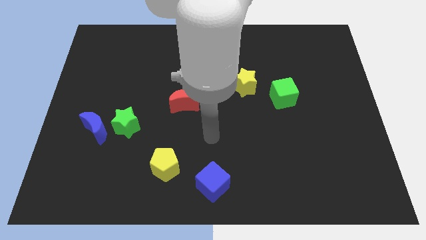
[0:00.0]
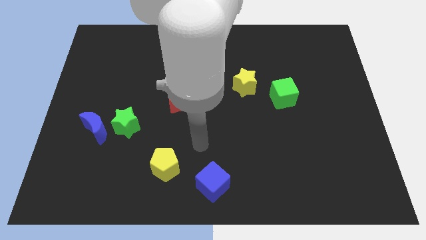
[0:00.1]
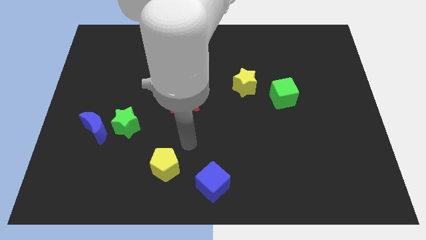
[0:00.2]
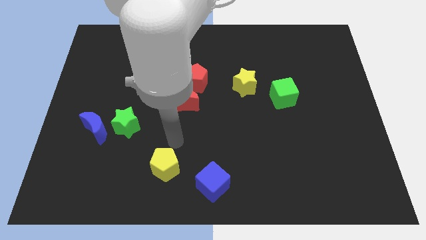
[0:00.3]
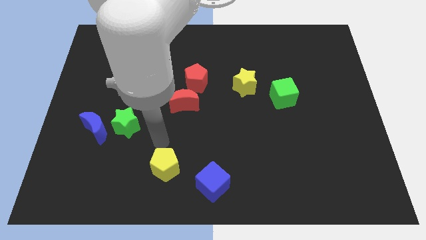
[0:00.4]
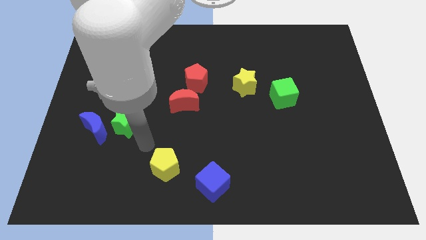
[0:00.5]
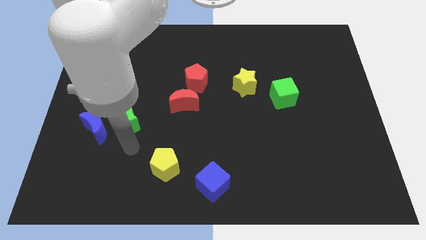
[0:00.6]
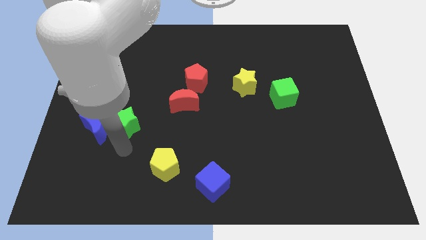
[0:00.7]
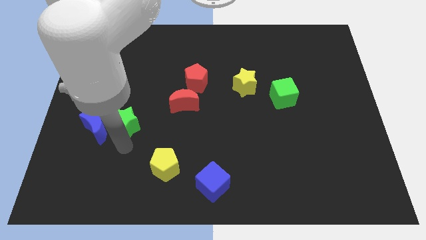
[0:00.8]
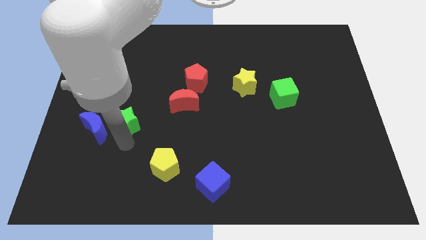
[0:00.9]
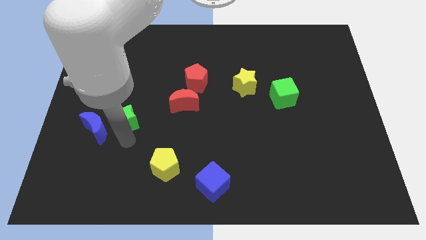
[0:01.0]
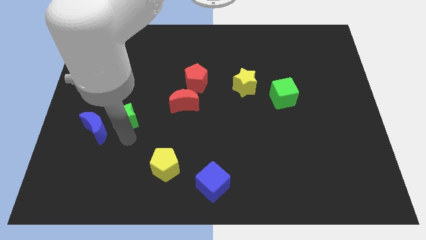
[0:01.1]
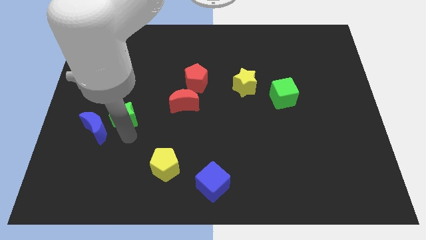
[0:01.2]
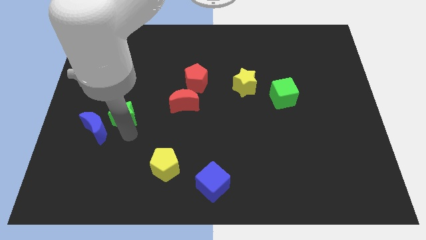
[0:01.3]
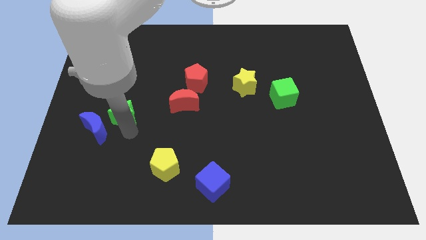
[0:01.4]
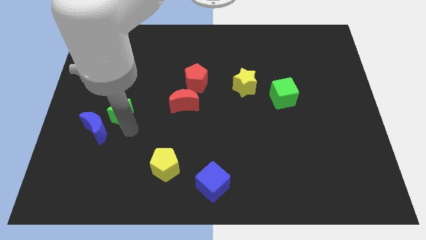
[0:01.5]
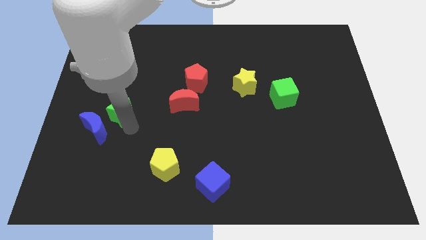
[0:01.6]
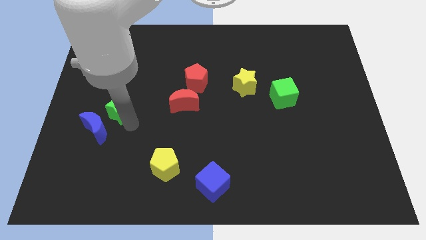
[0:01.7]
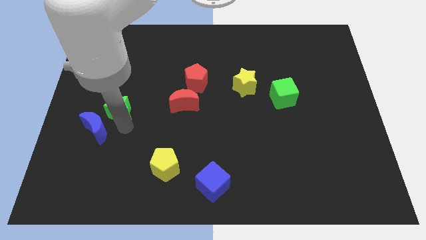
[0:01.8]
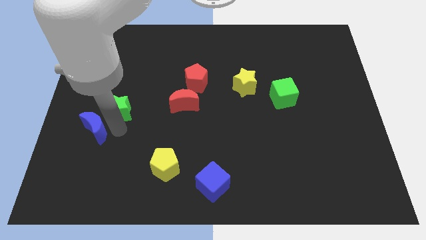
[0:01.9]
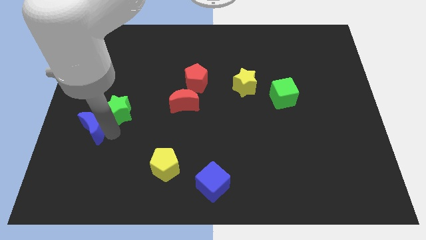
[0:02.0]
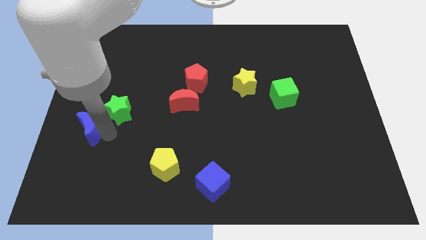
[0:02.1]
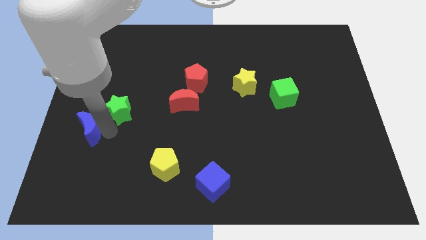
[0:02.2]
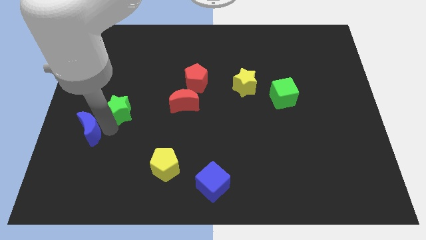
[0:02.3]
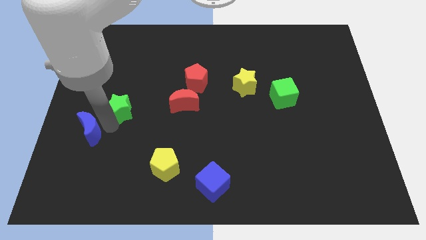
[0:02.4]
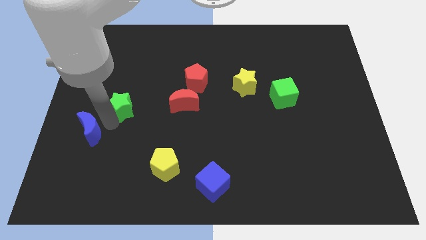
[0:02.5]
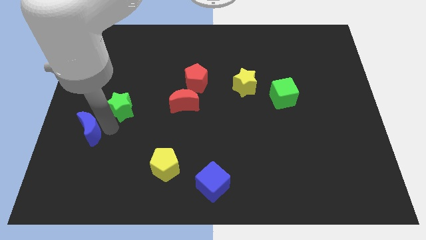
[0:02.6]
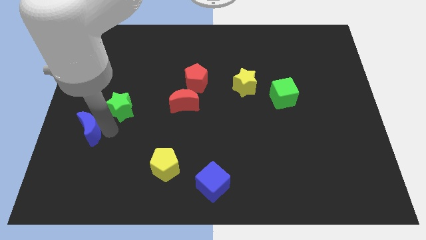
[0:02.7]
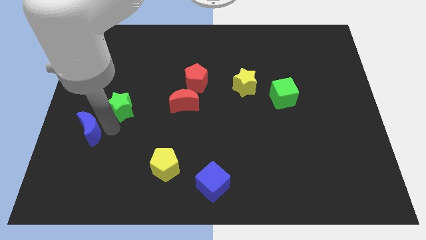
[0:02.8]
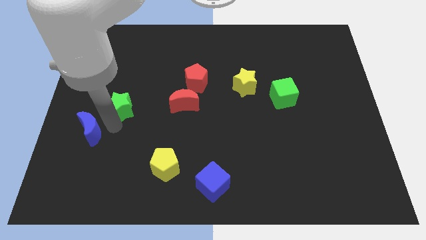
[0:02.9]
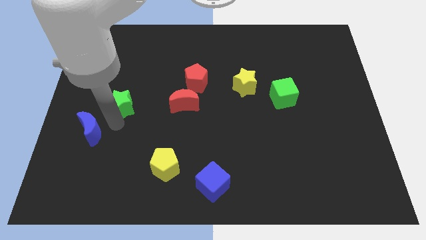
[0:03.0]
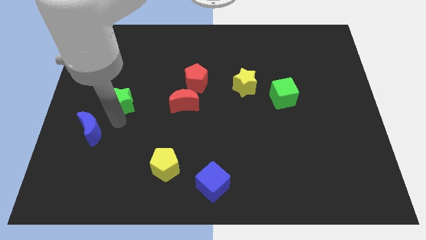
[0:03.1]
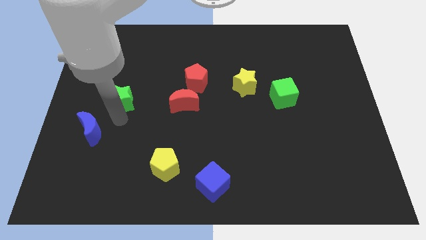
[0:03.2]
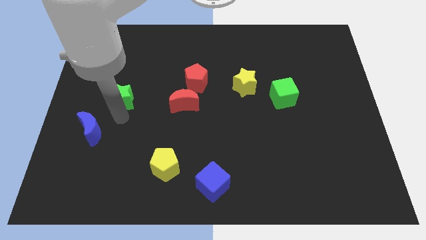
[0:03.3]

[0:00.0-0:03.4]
move the green star upwards a bit

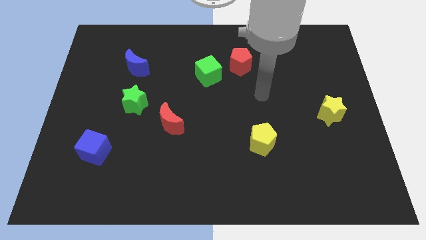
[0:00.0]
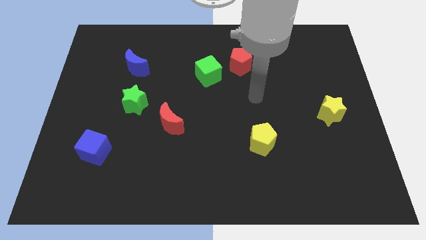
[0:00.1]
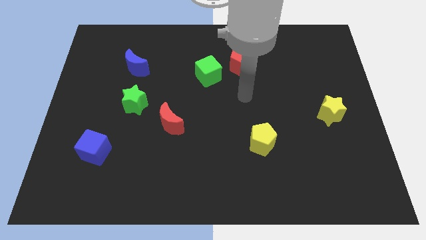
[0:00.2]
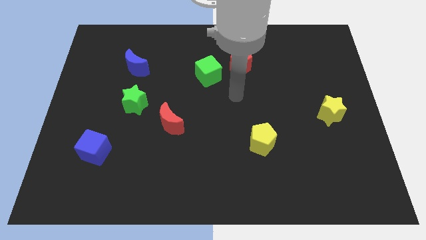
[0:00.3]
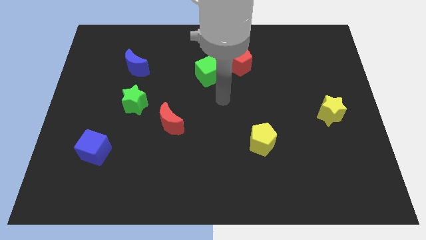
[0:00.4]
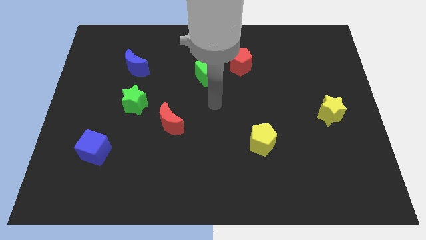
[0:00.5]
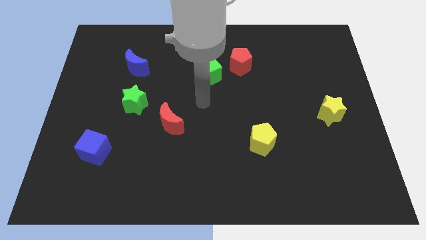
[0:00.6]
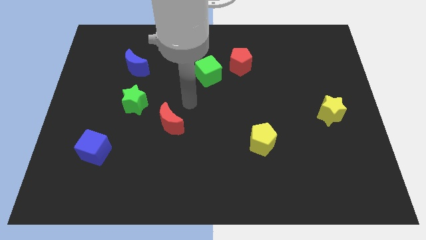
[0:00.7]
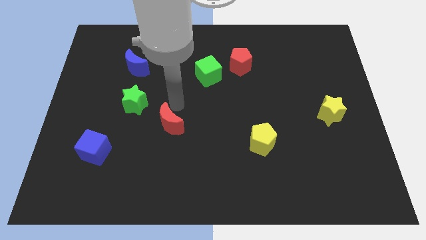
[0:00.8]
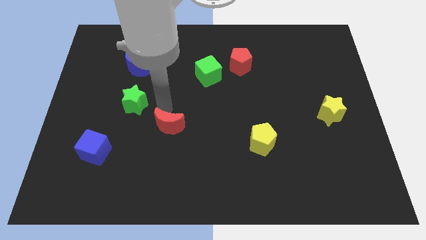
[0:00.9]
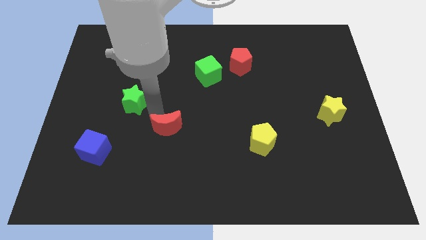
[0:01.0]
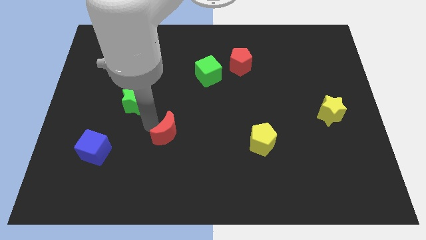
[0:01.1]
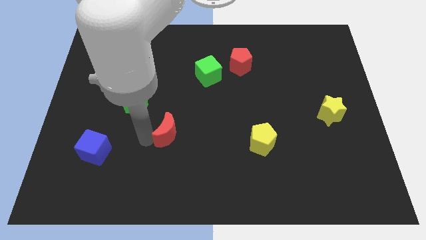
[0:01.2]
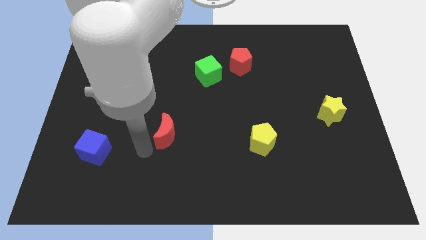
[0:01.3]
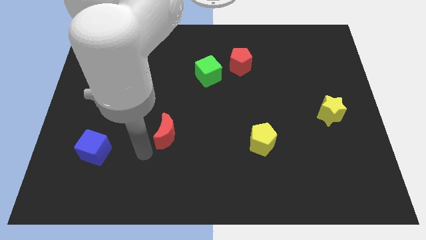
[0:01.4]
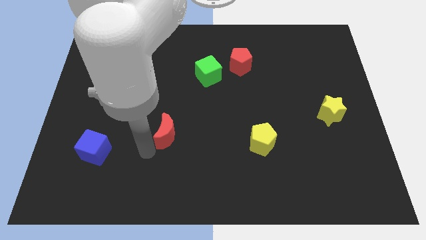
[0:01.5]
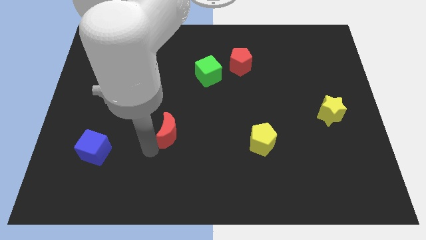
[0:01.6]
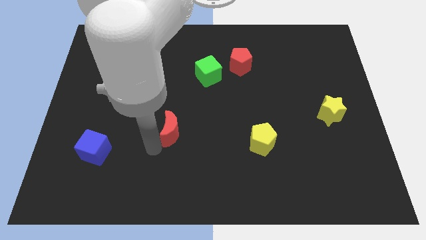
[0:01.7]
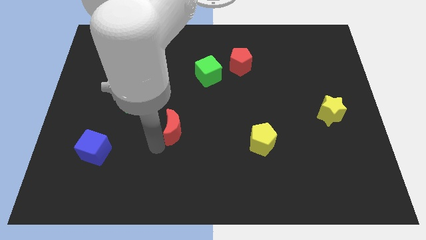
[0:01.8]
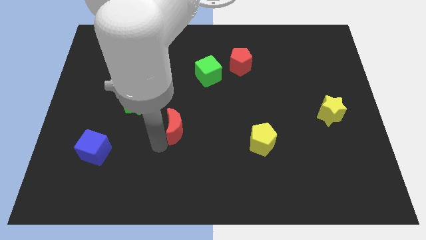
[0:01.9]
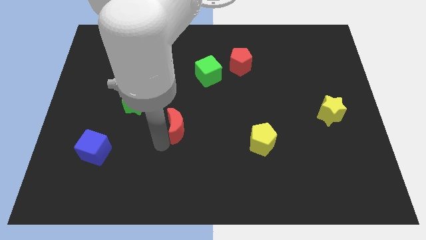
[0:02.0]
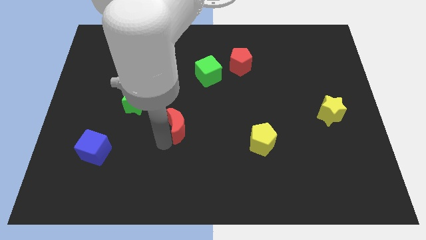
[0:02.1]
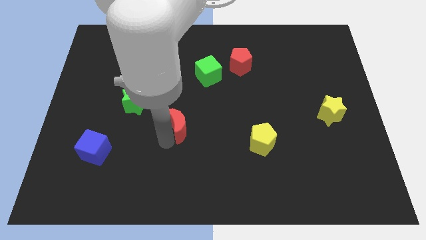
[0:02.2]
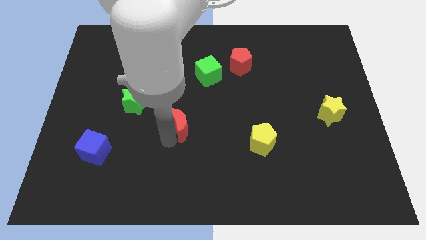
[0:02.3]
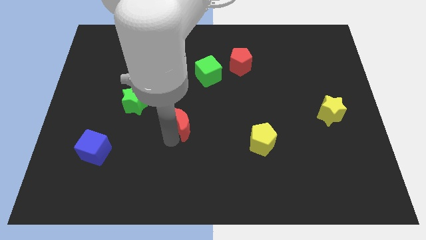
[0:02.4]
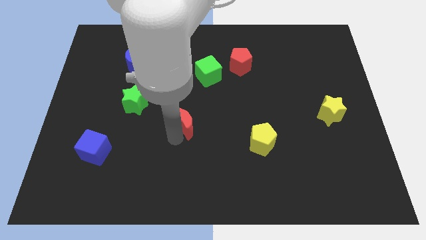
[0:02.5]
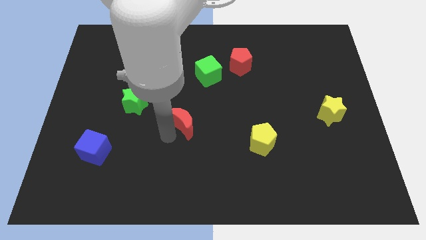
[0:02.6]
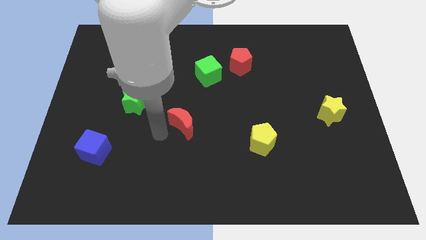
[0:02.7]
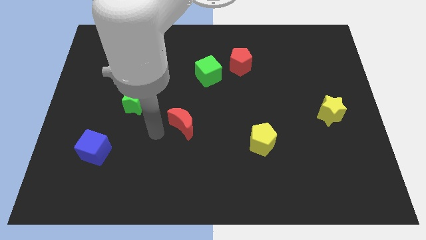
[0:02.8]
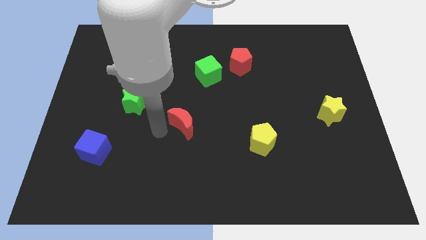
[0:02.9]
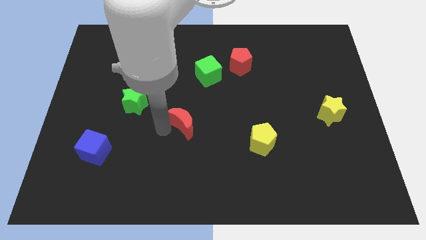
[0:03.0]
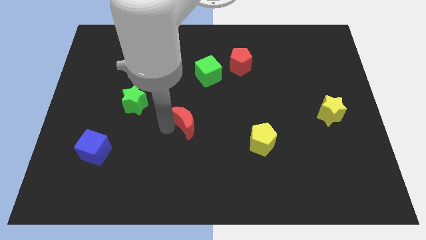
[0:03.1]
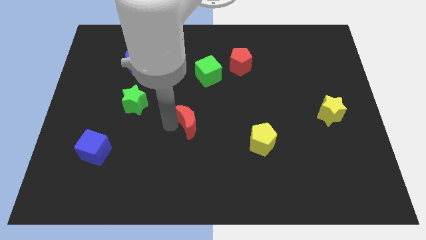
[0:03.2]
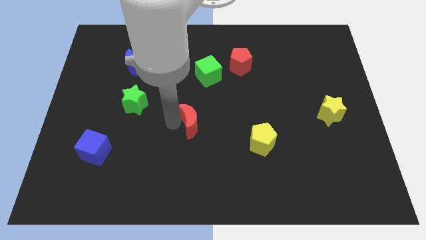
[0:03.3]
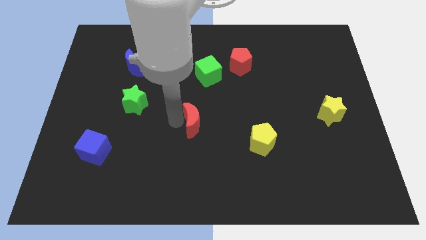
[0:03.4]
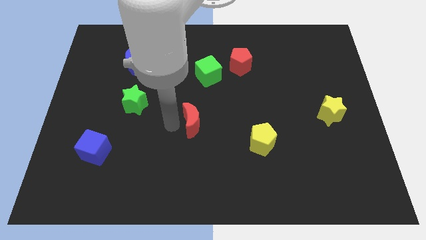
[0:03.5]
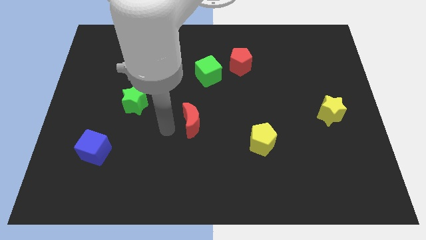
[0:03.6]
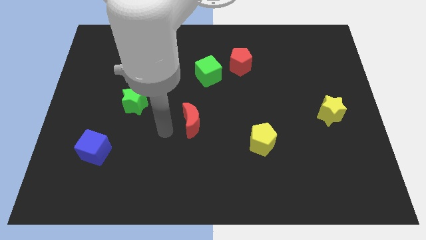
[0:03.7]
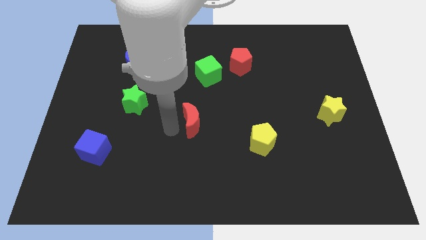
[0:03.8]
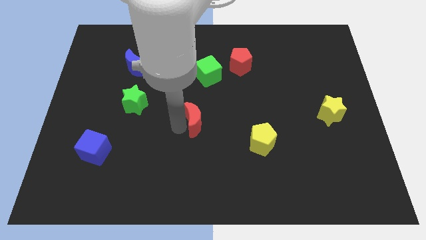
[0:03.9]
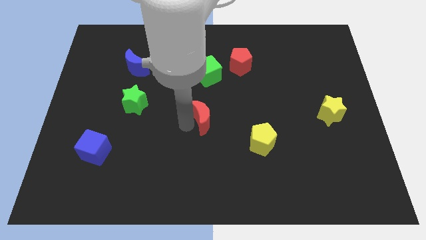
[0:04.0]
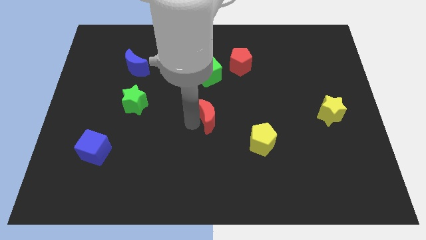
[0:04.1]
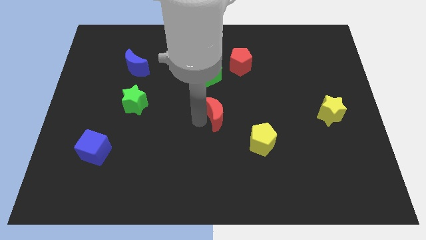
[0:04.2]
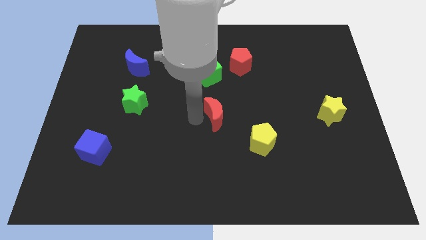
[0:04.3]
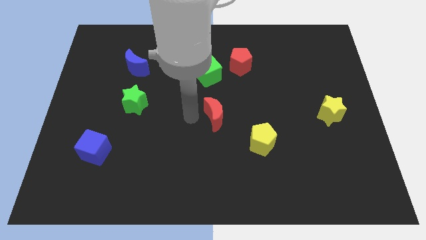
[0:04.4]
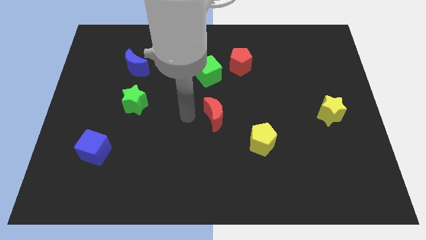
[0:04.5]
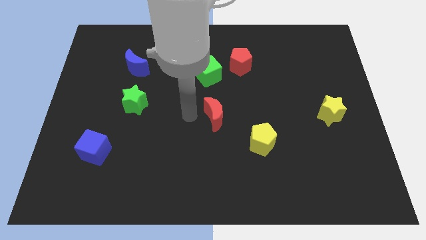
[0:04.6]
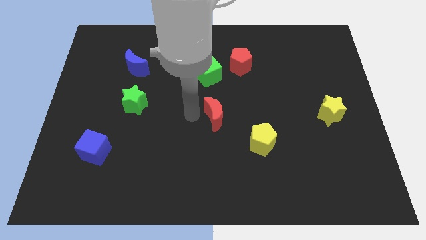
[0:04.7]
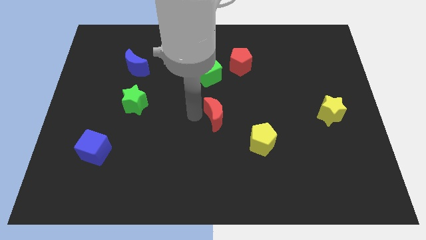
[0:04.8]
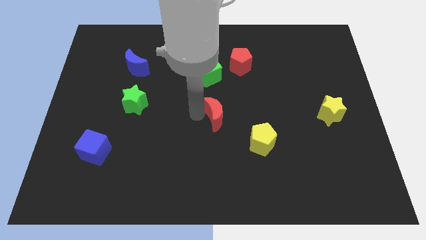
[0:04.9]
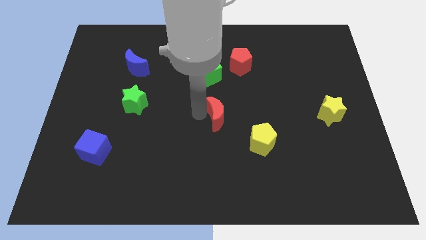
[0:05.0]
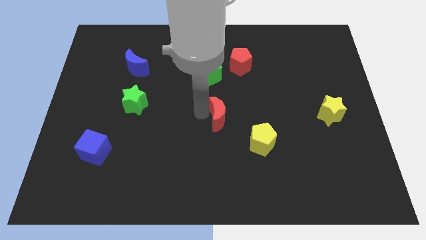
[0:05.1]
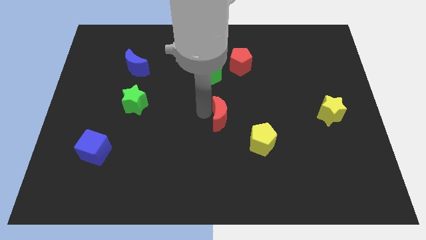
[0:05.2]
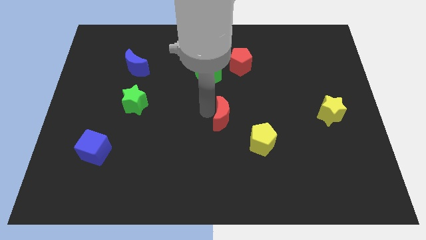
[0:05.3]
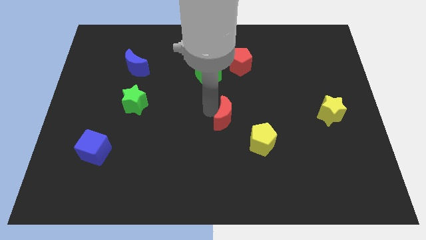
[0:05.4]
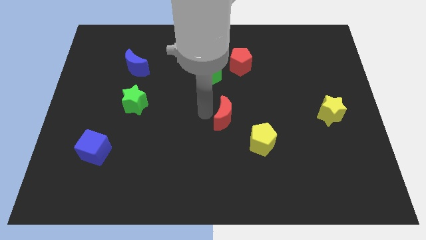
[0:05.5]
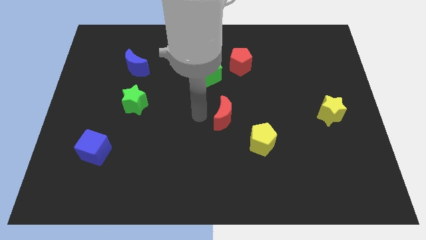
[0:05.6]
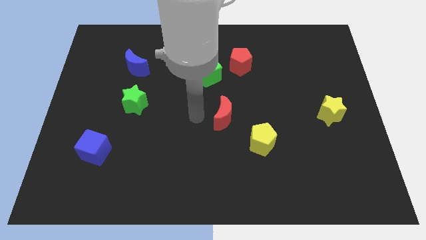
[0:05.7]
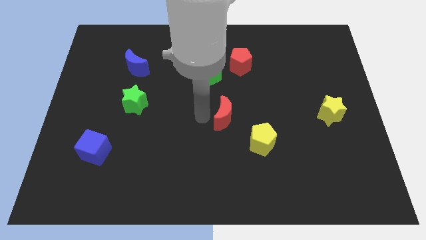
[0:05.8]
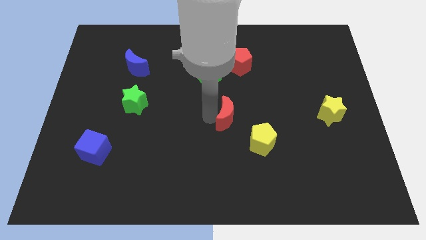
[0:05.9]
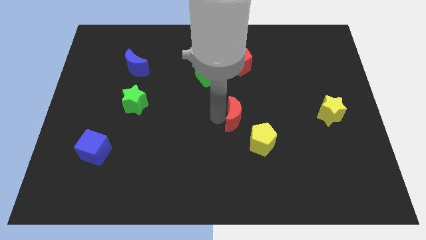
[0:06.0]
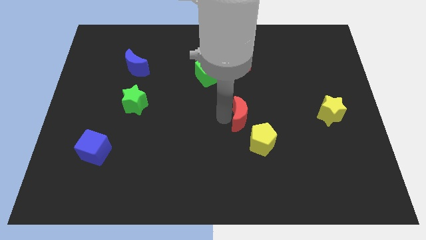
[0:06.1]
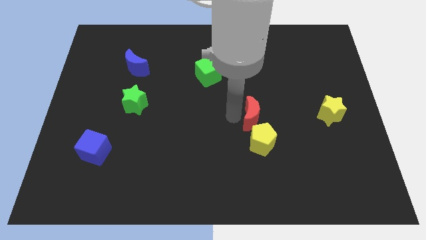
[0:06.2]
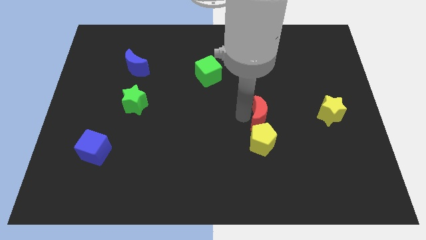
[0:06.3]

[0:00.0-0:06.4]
slide the red moon to the right
